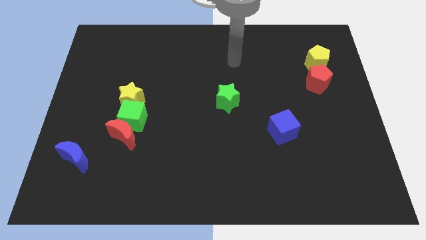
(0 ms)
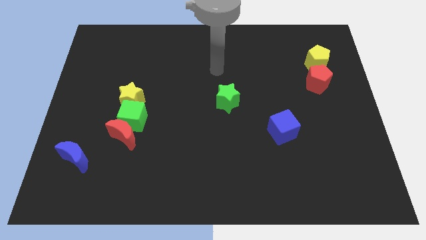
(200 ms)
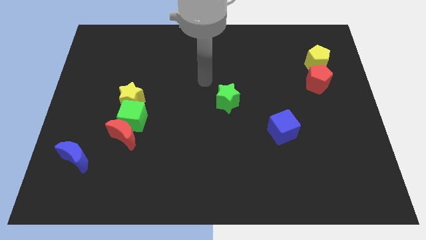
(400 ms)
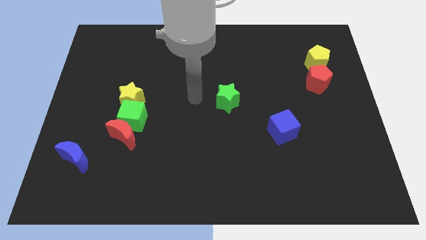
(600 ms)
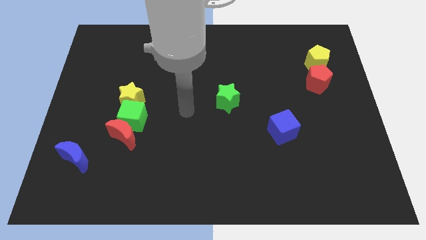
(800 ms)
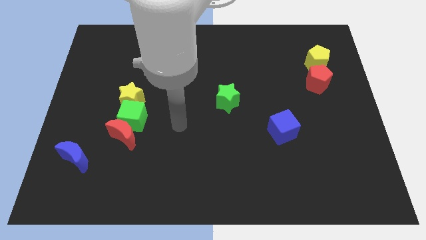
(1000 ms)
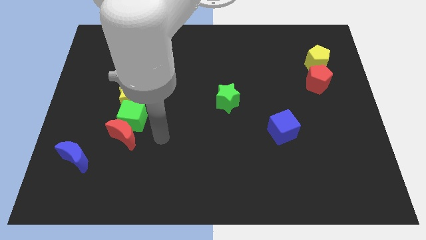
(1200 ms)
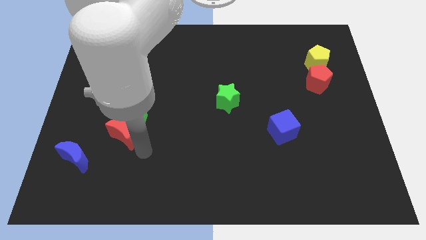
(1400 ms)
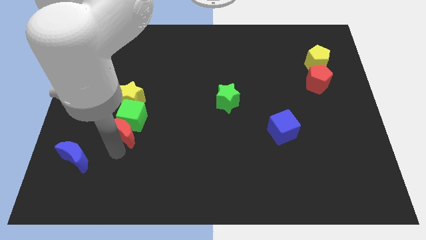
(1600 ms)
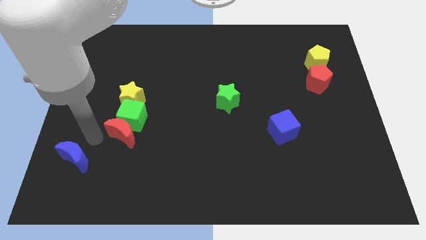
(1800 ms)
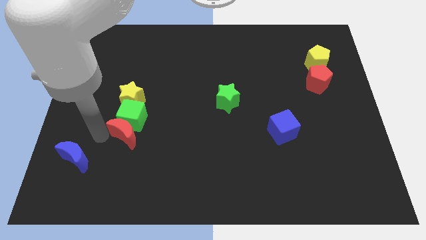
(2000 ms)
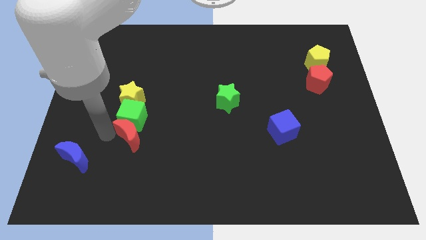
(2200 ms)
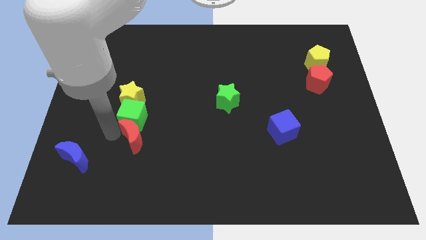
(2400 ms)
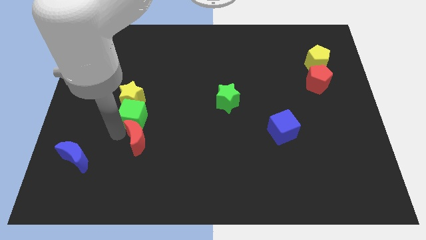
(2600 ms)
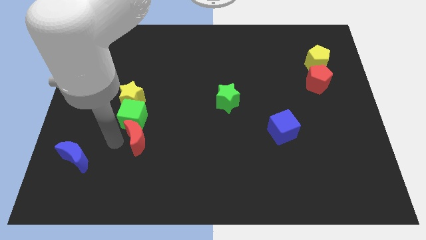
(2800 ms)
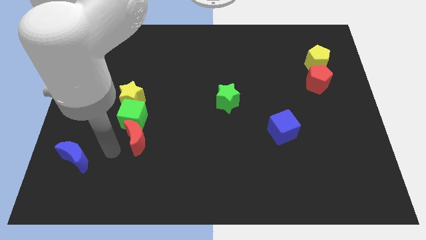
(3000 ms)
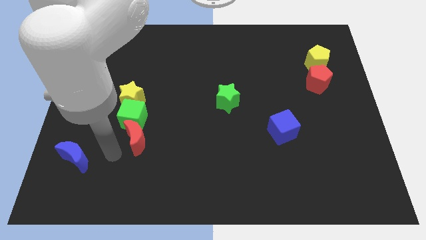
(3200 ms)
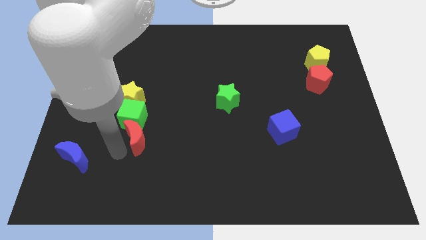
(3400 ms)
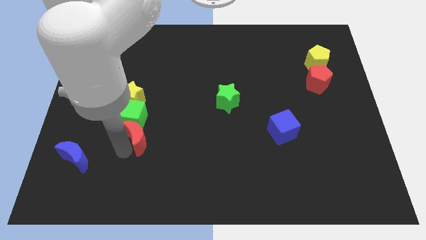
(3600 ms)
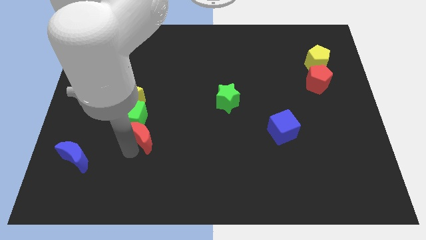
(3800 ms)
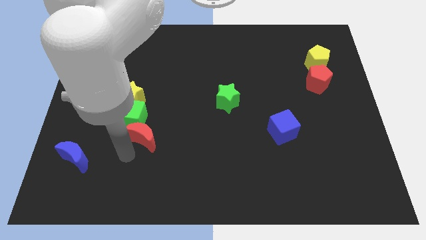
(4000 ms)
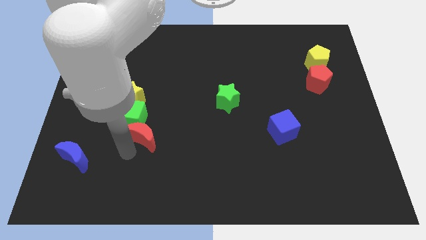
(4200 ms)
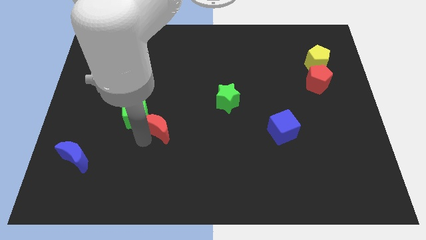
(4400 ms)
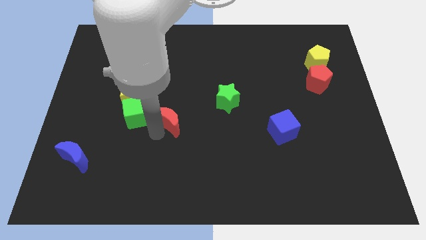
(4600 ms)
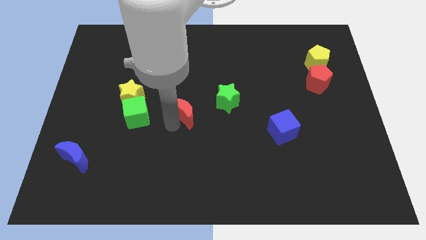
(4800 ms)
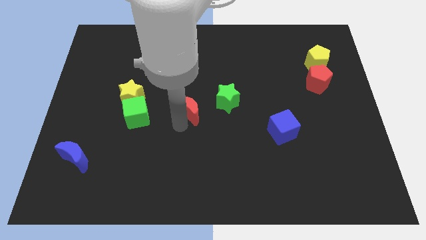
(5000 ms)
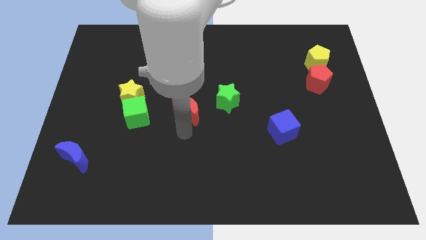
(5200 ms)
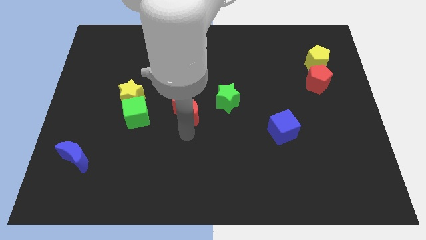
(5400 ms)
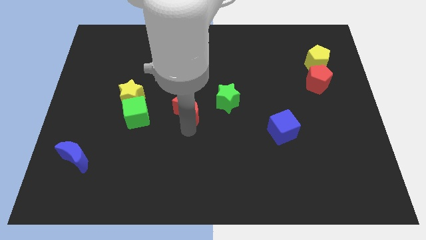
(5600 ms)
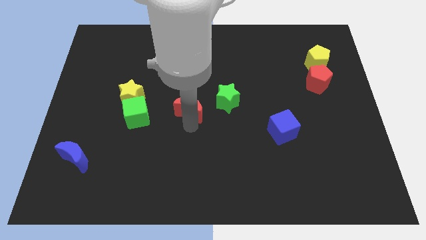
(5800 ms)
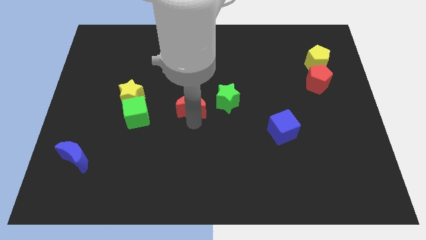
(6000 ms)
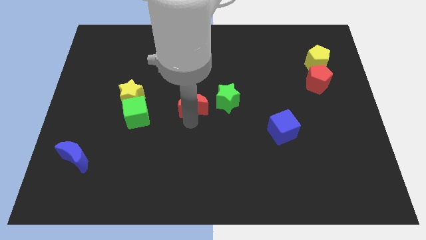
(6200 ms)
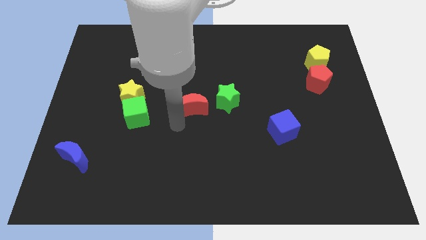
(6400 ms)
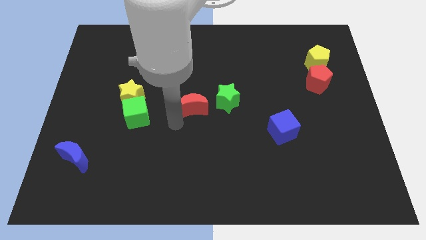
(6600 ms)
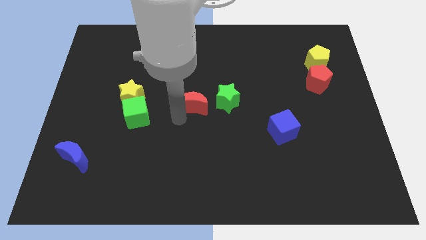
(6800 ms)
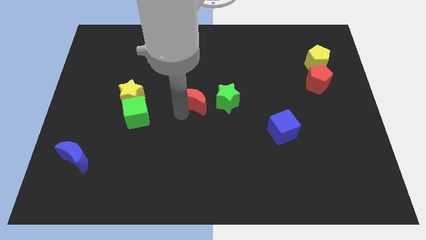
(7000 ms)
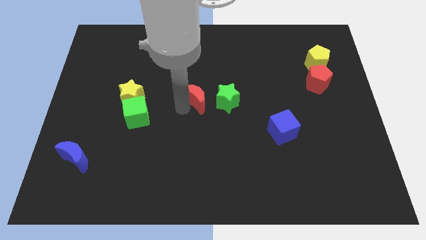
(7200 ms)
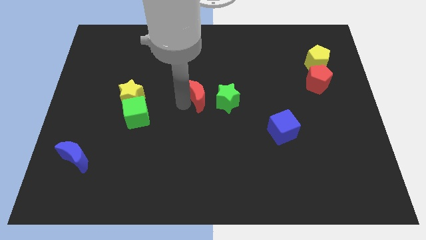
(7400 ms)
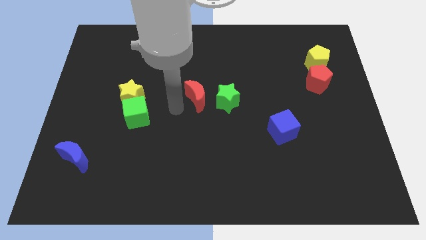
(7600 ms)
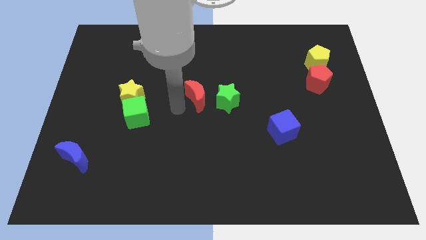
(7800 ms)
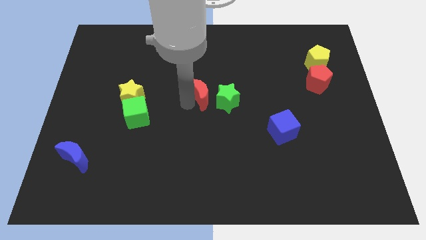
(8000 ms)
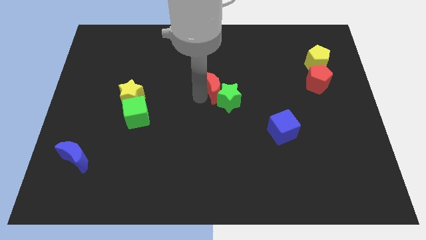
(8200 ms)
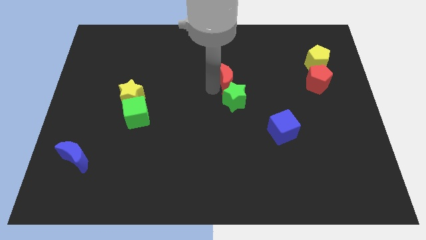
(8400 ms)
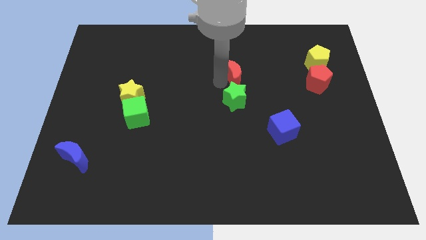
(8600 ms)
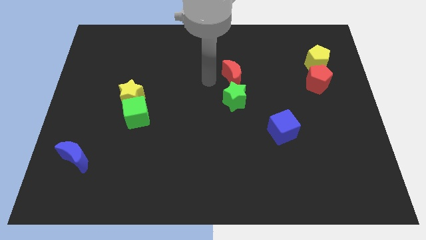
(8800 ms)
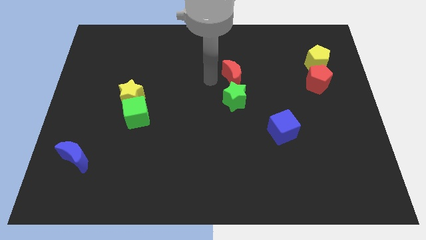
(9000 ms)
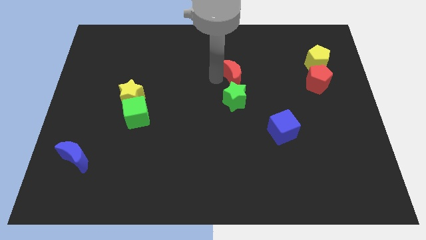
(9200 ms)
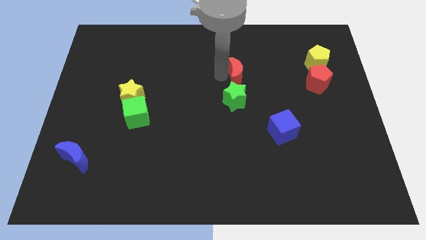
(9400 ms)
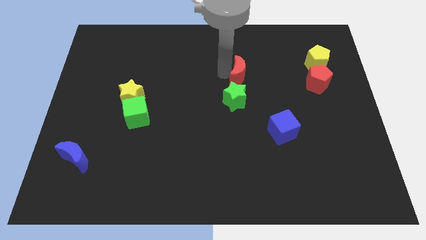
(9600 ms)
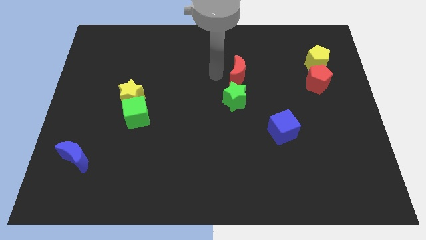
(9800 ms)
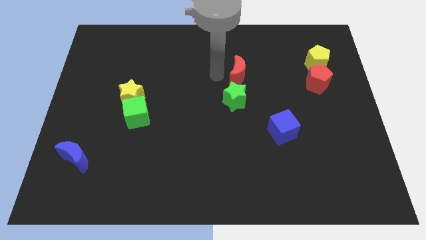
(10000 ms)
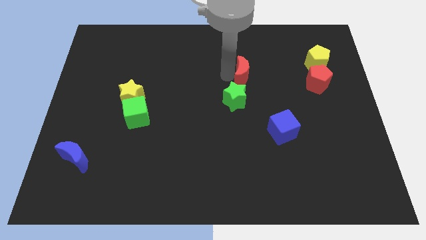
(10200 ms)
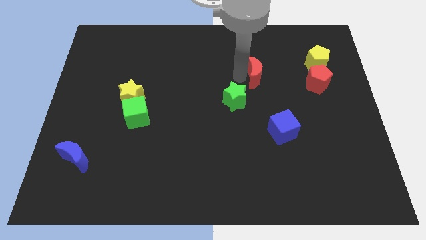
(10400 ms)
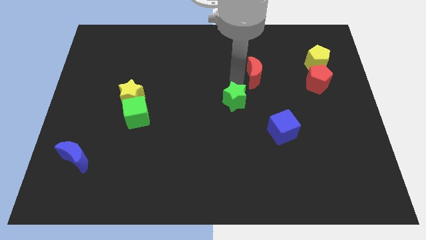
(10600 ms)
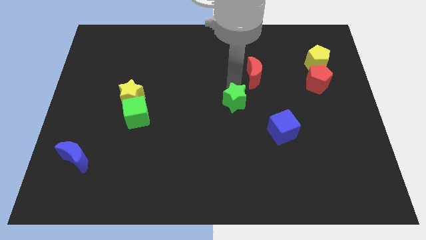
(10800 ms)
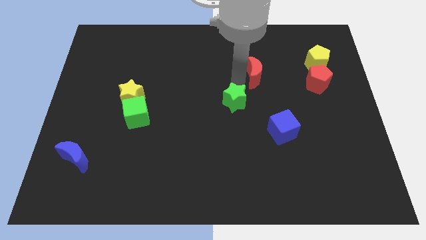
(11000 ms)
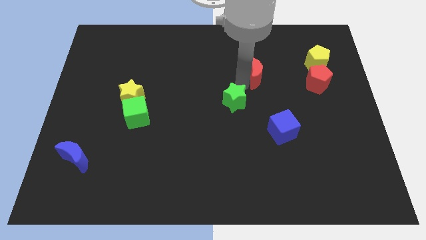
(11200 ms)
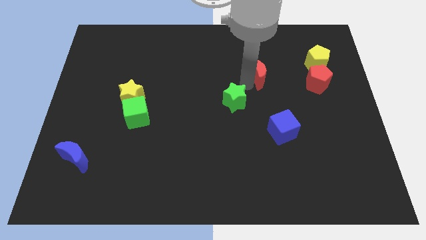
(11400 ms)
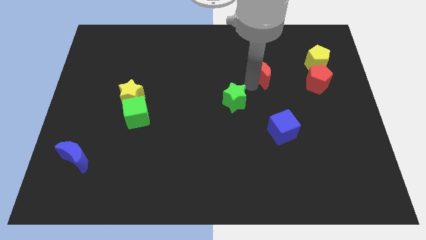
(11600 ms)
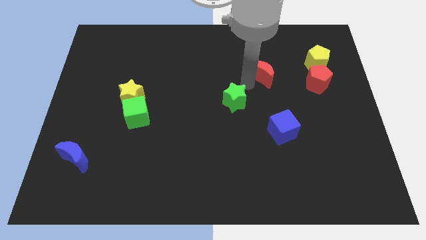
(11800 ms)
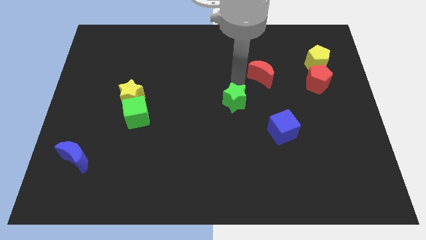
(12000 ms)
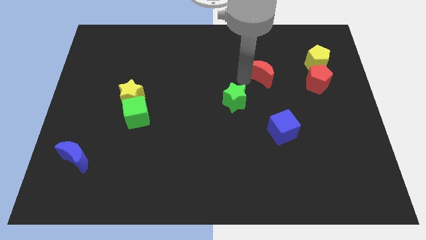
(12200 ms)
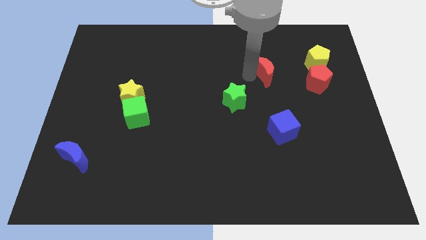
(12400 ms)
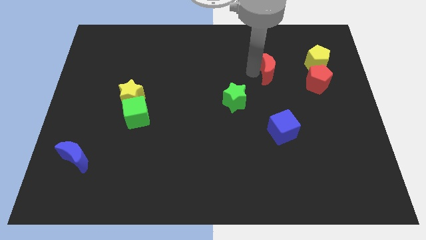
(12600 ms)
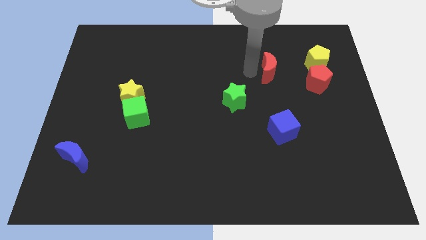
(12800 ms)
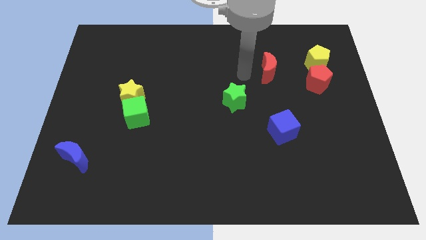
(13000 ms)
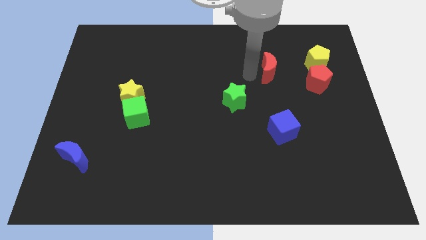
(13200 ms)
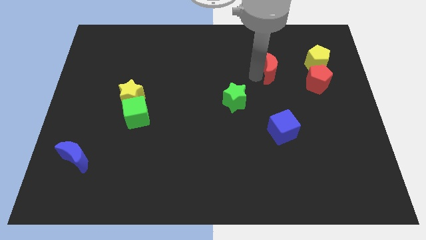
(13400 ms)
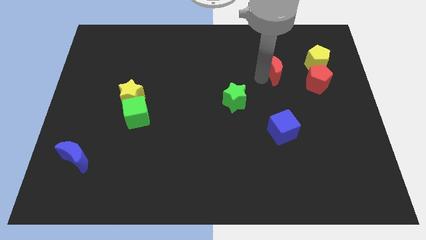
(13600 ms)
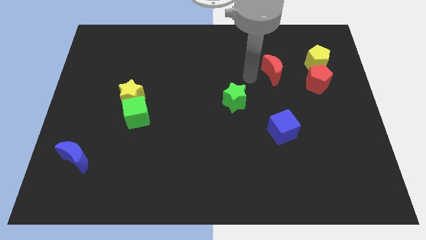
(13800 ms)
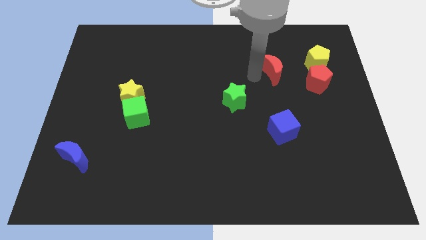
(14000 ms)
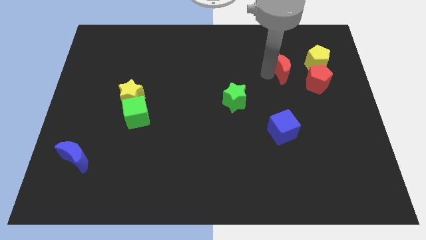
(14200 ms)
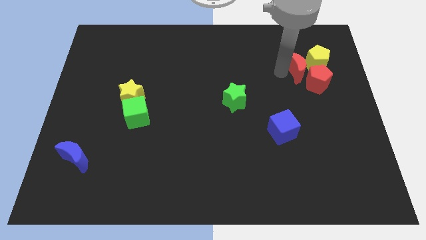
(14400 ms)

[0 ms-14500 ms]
push the red moon next to the yellow pentagon
